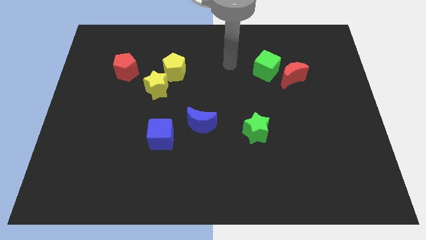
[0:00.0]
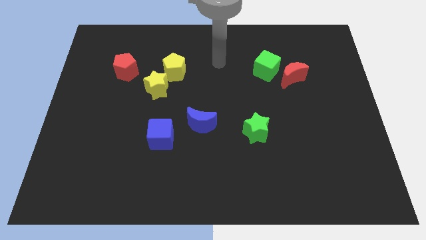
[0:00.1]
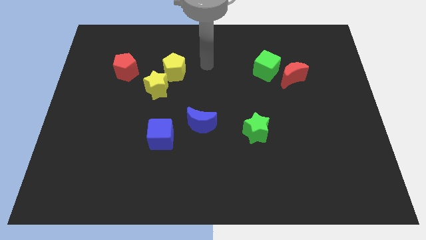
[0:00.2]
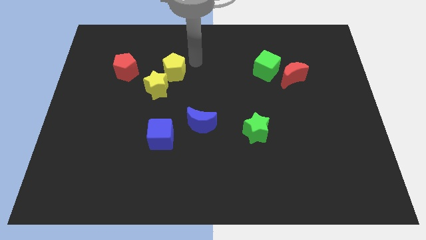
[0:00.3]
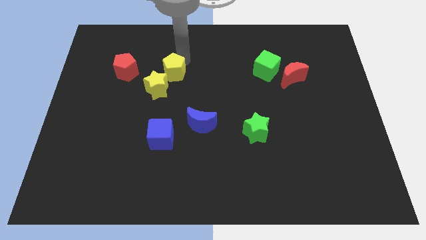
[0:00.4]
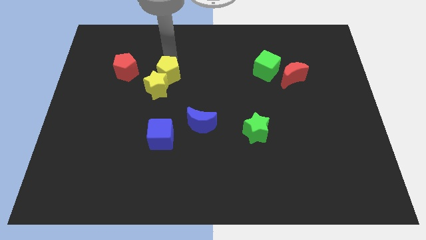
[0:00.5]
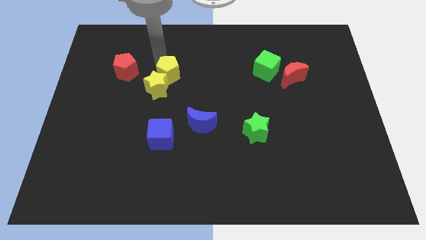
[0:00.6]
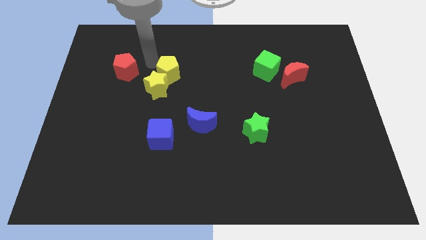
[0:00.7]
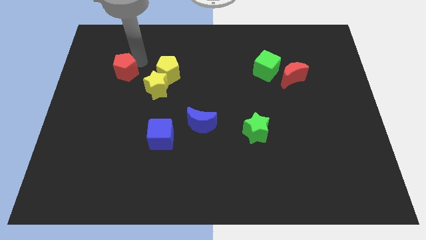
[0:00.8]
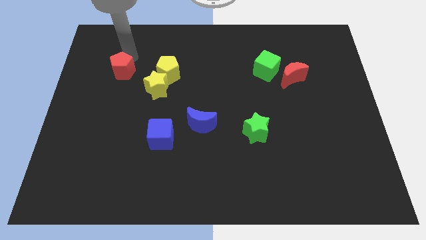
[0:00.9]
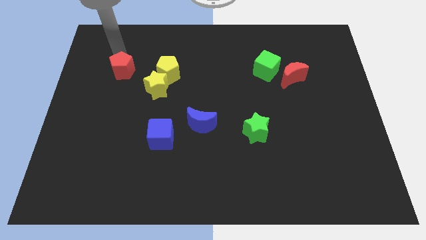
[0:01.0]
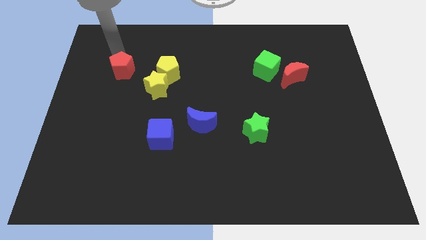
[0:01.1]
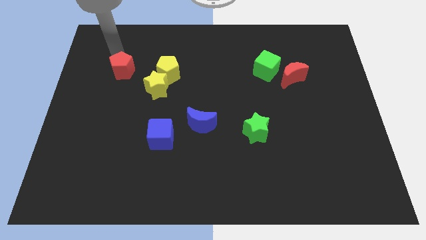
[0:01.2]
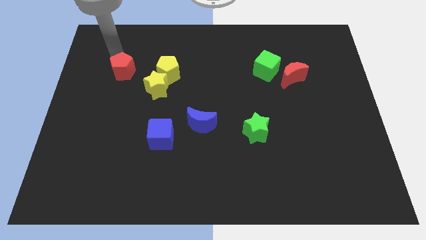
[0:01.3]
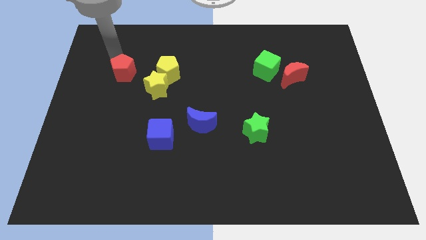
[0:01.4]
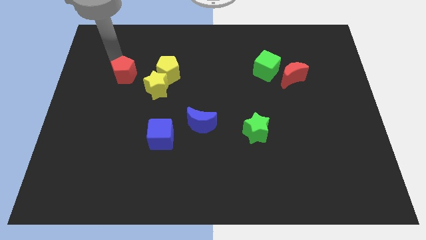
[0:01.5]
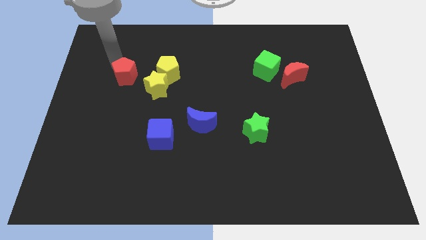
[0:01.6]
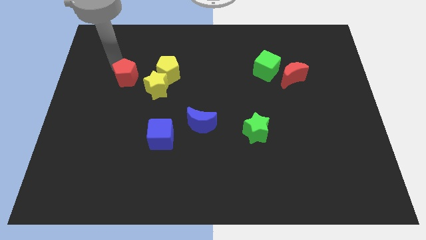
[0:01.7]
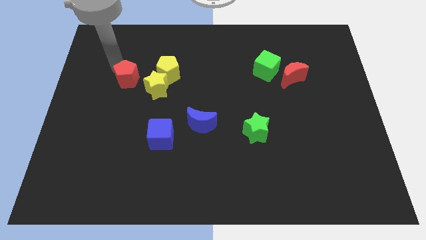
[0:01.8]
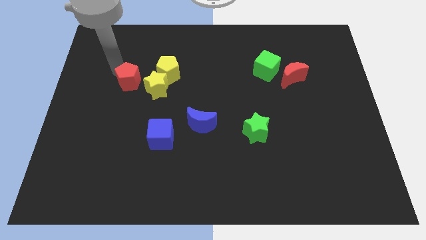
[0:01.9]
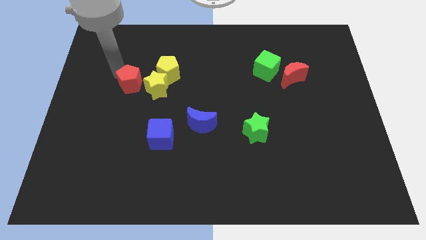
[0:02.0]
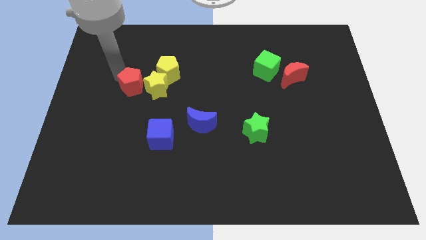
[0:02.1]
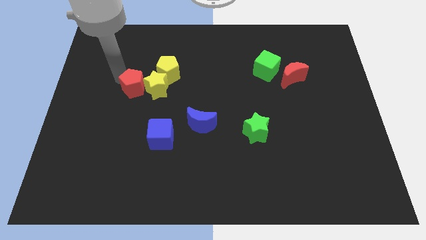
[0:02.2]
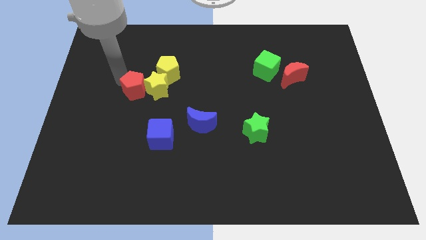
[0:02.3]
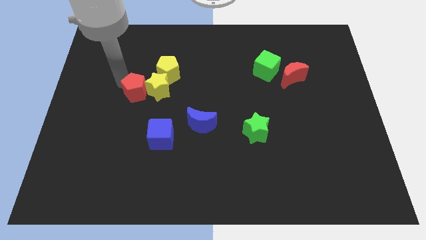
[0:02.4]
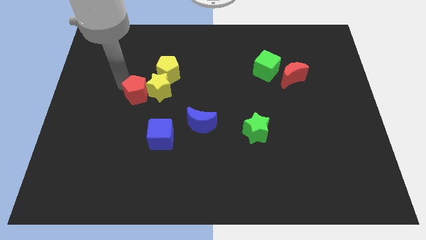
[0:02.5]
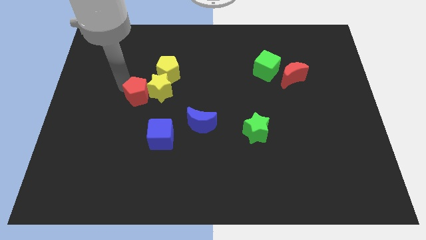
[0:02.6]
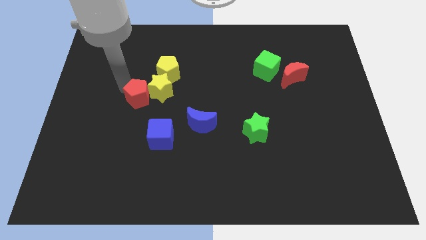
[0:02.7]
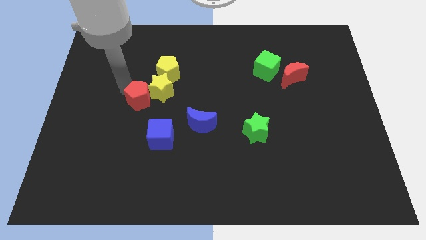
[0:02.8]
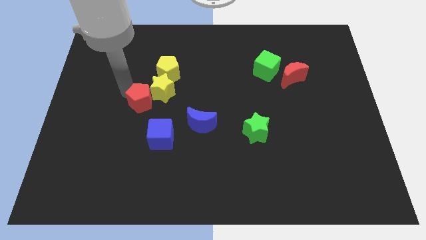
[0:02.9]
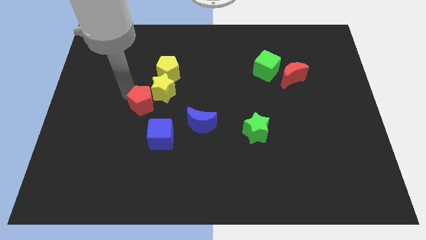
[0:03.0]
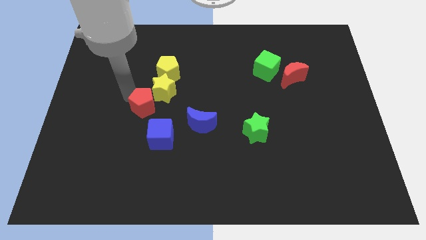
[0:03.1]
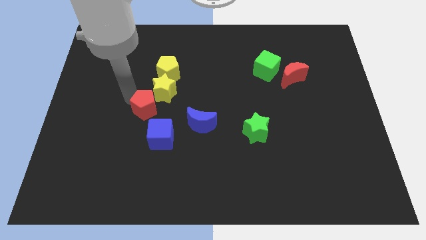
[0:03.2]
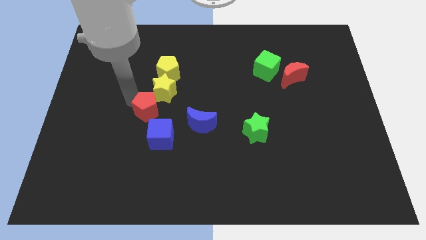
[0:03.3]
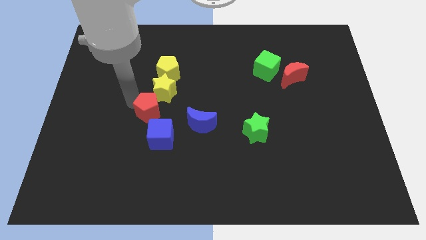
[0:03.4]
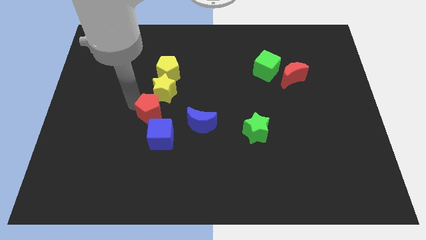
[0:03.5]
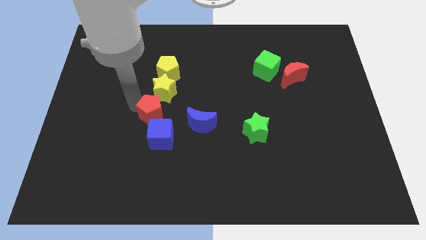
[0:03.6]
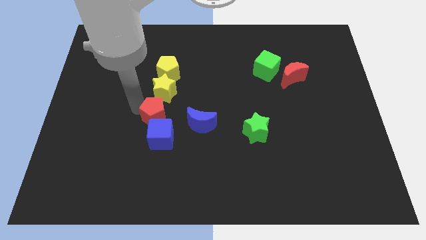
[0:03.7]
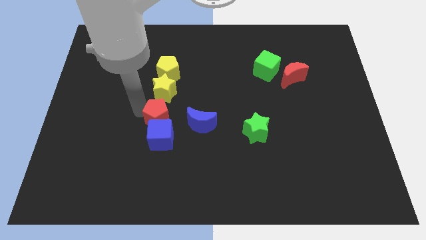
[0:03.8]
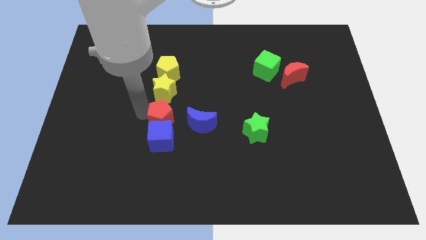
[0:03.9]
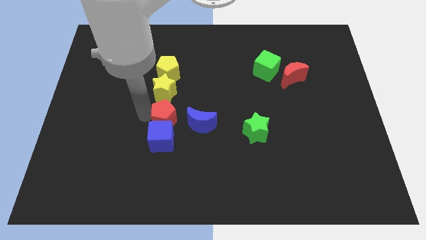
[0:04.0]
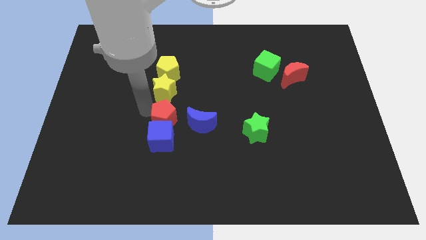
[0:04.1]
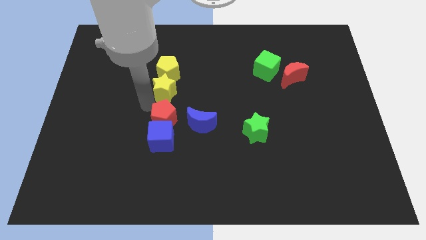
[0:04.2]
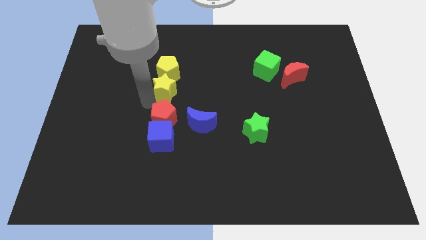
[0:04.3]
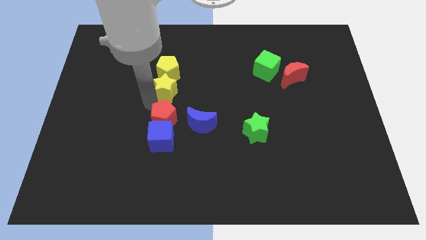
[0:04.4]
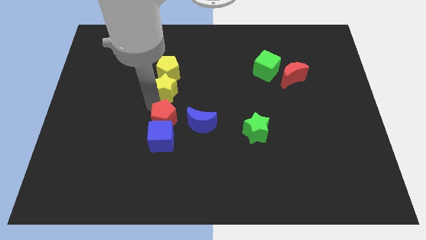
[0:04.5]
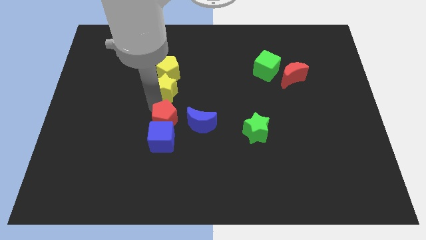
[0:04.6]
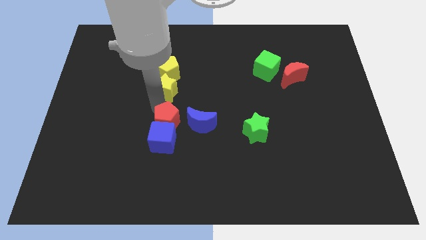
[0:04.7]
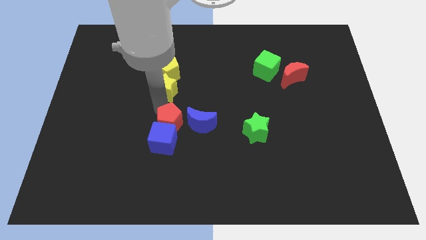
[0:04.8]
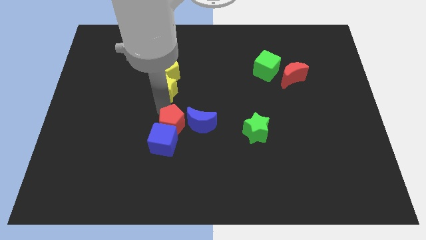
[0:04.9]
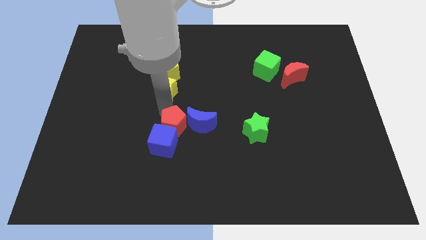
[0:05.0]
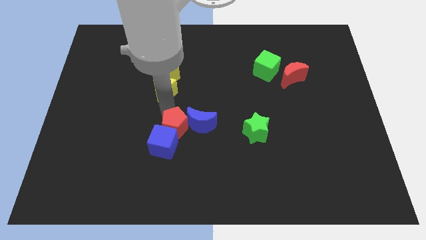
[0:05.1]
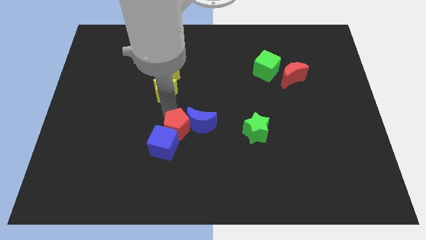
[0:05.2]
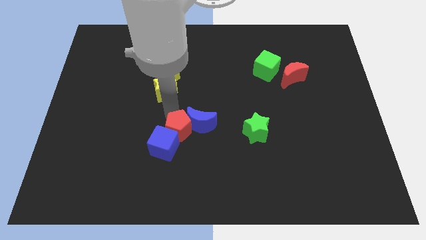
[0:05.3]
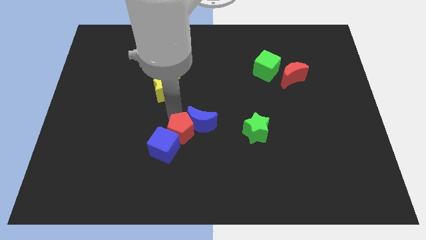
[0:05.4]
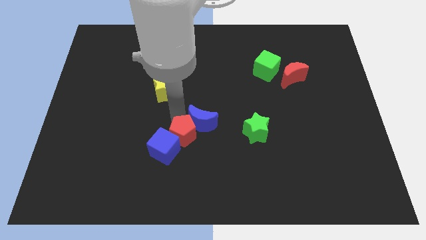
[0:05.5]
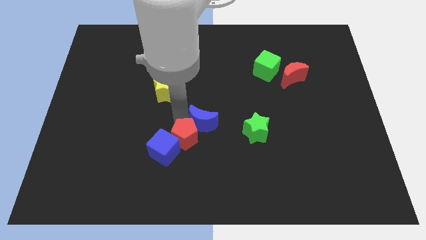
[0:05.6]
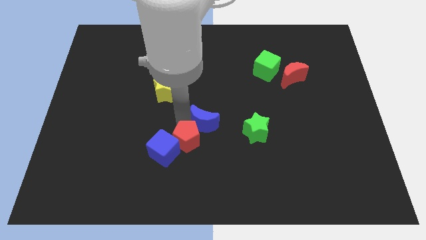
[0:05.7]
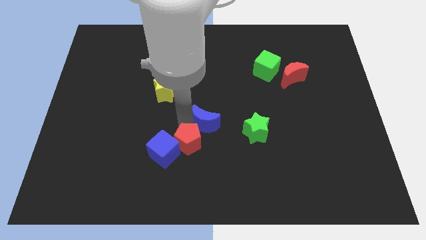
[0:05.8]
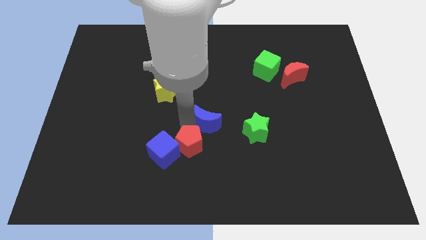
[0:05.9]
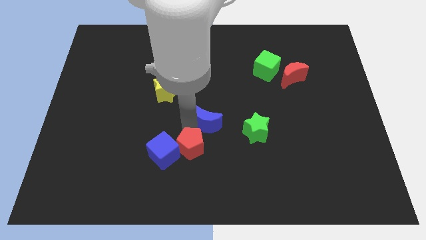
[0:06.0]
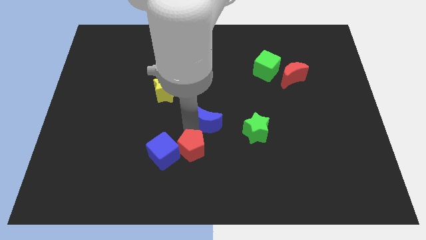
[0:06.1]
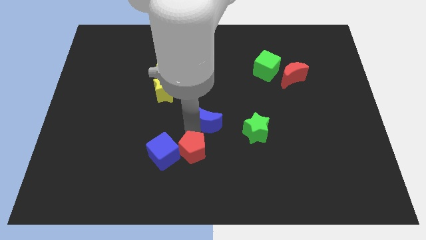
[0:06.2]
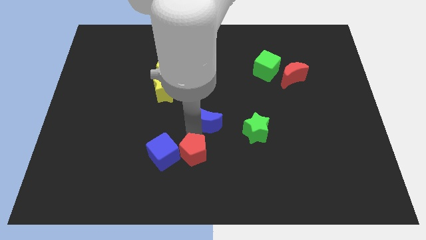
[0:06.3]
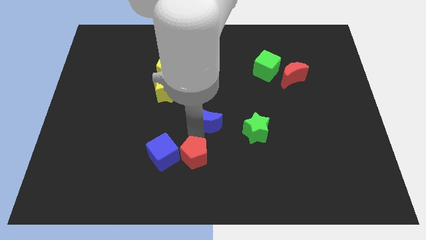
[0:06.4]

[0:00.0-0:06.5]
put the red pentagon to the bottom side
